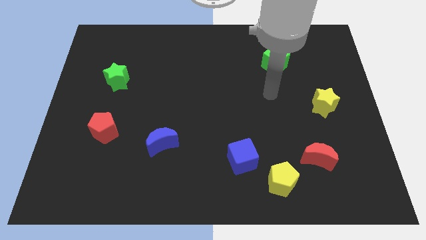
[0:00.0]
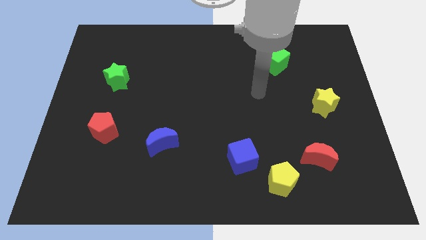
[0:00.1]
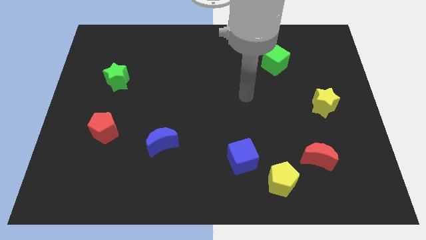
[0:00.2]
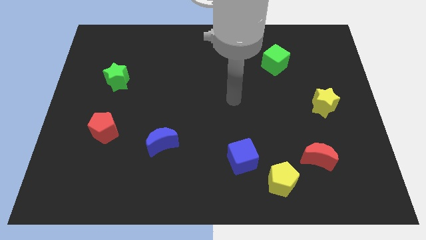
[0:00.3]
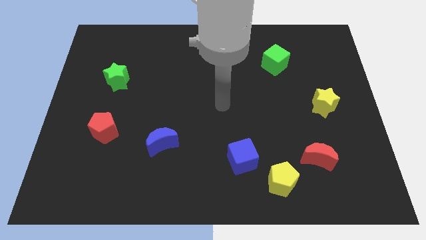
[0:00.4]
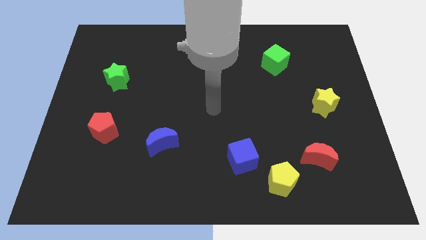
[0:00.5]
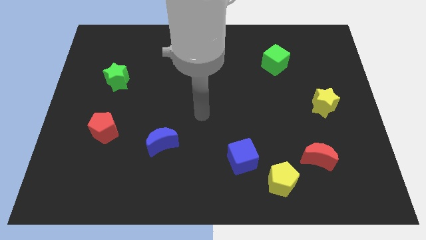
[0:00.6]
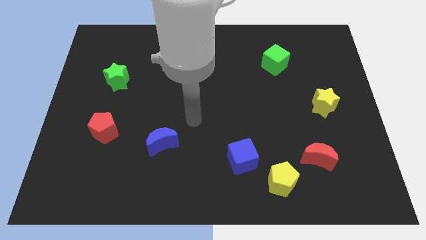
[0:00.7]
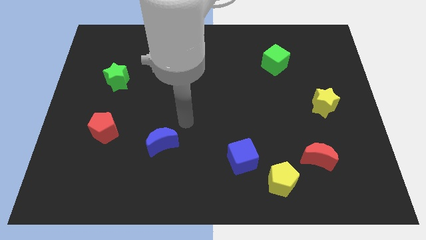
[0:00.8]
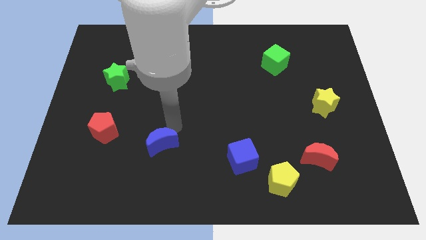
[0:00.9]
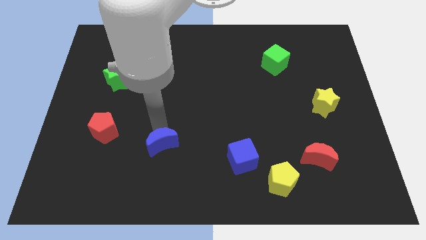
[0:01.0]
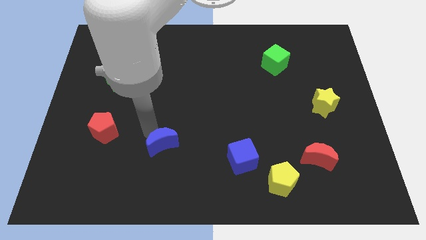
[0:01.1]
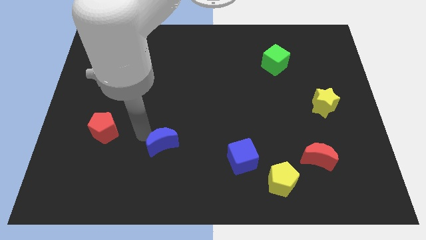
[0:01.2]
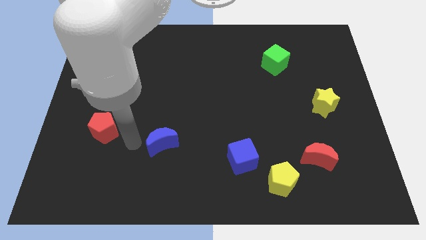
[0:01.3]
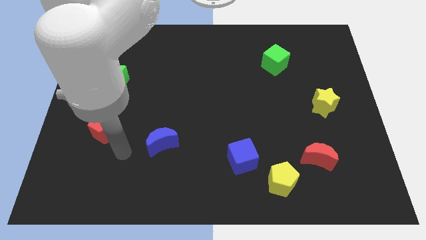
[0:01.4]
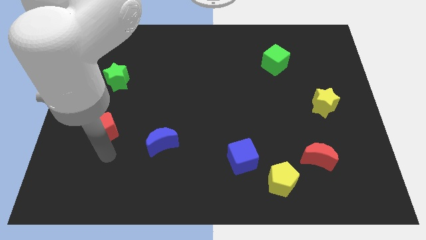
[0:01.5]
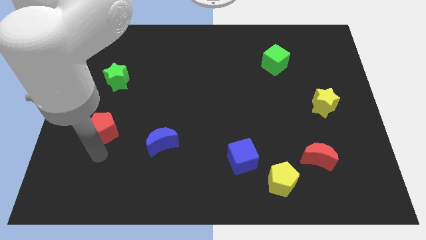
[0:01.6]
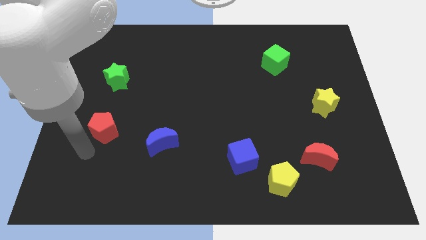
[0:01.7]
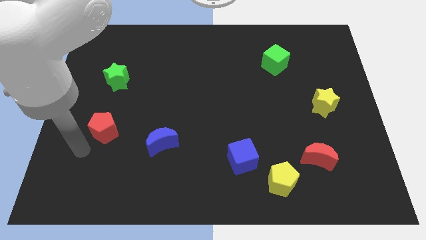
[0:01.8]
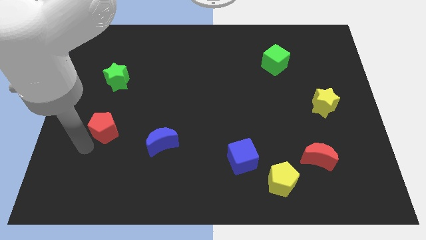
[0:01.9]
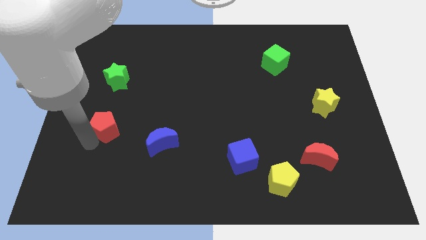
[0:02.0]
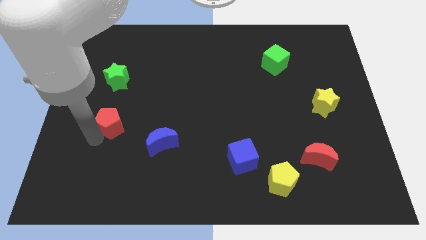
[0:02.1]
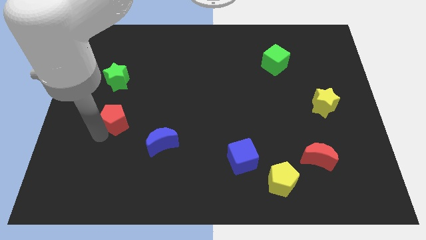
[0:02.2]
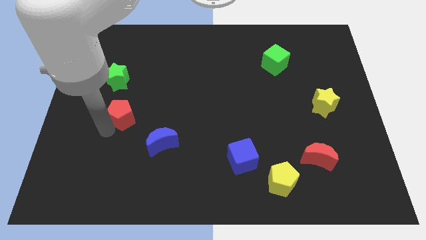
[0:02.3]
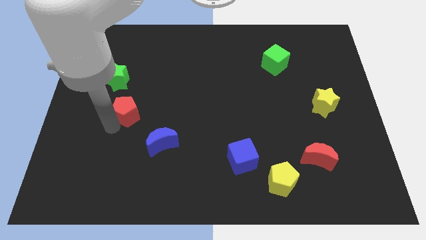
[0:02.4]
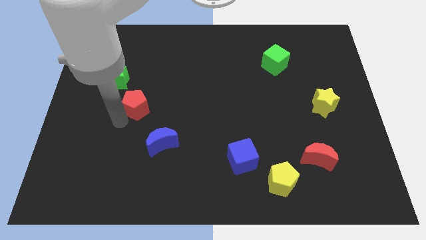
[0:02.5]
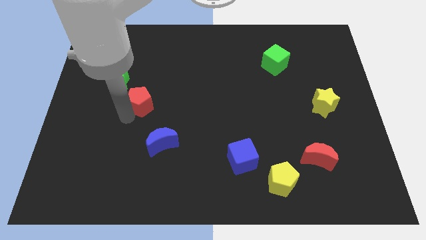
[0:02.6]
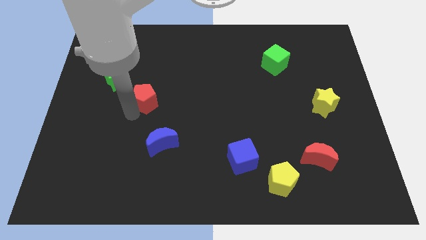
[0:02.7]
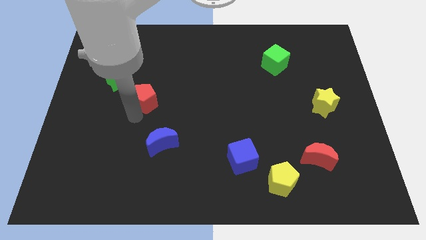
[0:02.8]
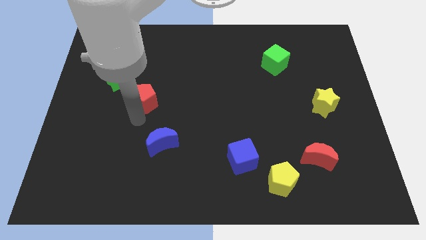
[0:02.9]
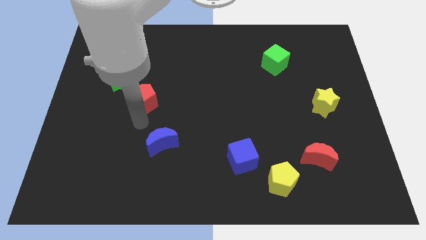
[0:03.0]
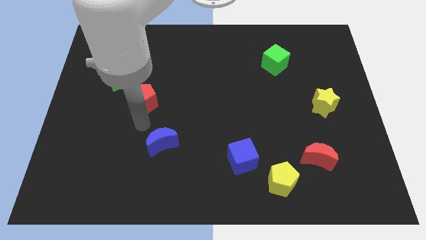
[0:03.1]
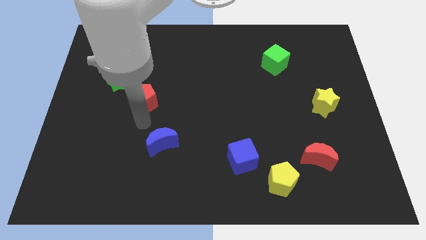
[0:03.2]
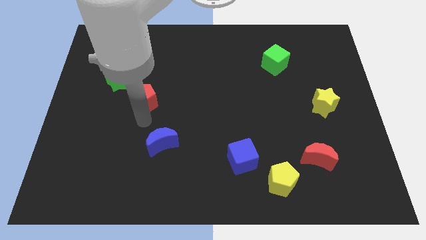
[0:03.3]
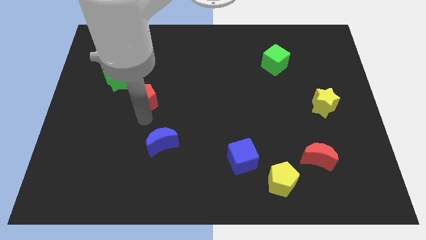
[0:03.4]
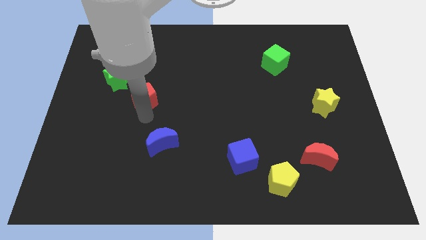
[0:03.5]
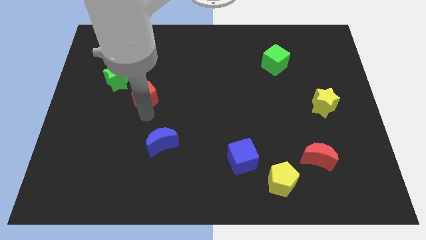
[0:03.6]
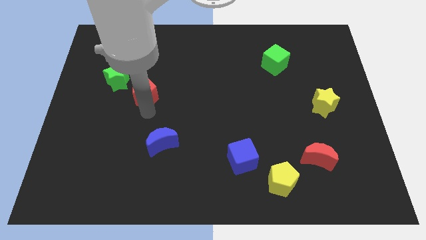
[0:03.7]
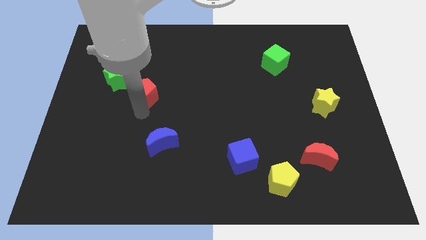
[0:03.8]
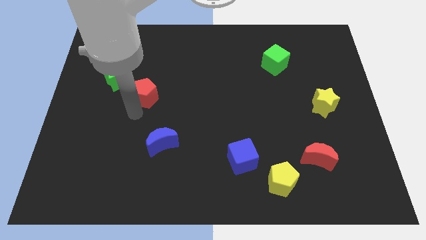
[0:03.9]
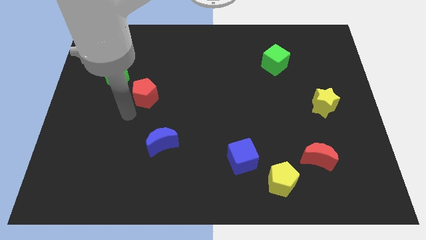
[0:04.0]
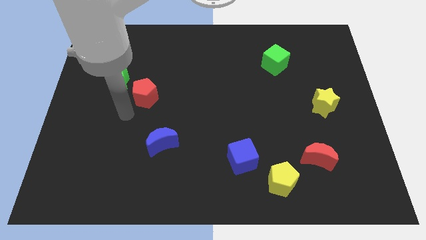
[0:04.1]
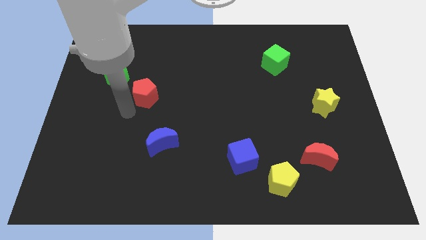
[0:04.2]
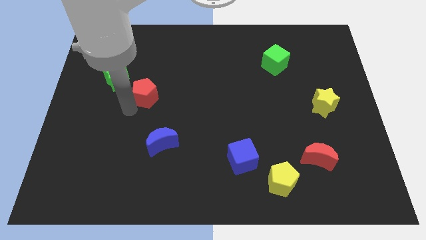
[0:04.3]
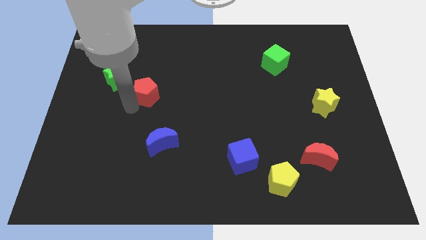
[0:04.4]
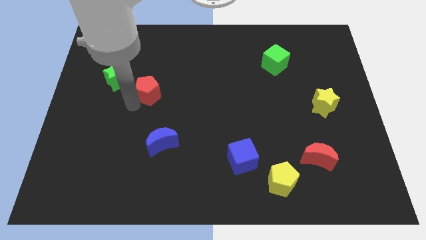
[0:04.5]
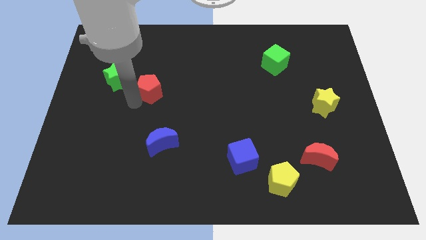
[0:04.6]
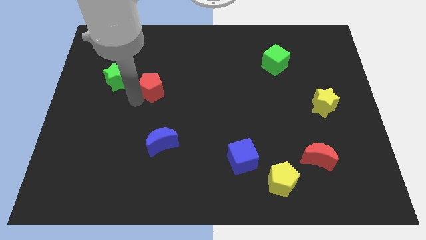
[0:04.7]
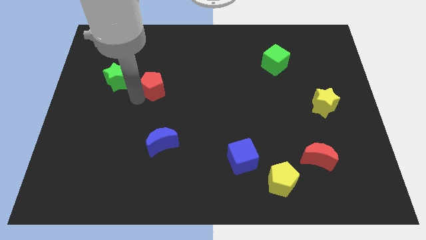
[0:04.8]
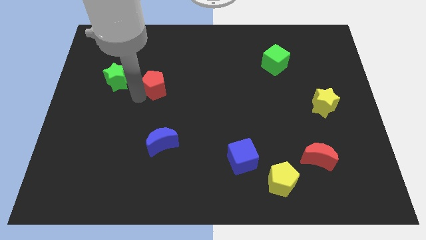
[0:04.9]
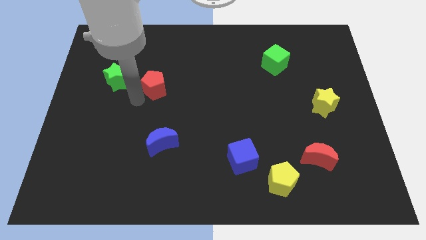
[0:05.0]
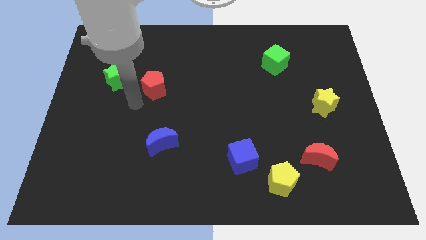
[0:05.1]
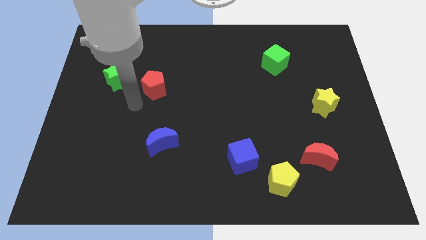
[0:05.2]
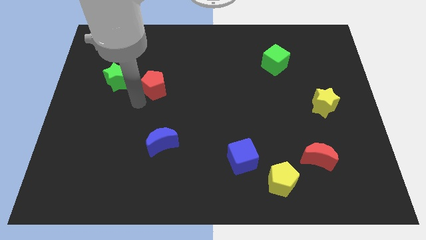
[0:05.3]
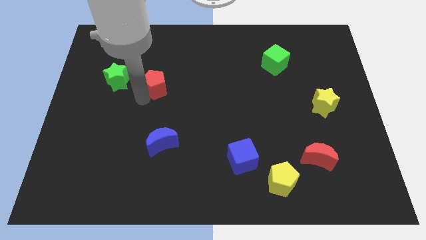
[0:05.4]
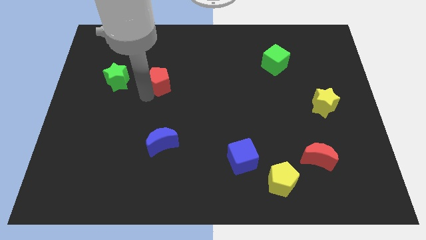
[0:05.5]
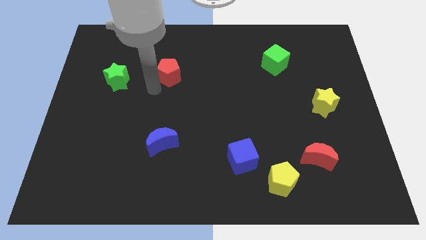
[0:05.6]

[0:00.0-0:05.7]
move the red pentagon diagonally up and to the right

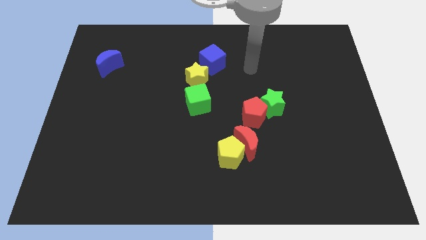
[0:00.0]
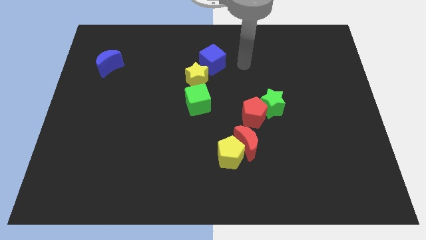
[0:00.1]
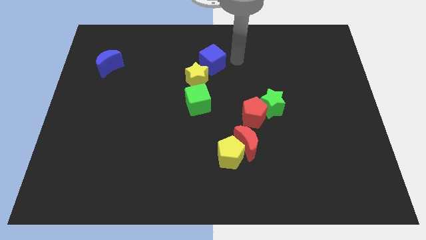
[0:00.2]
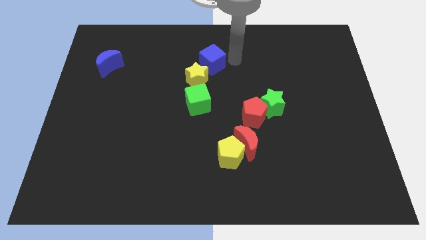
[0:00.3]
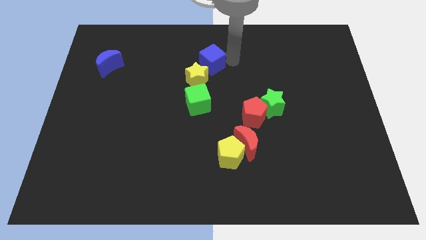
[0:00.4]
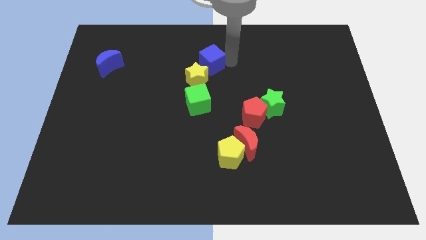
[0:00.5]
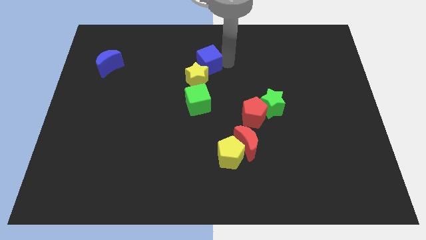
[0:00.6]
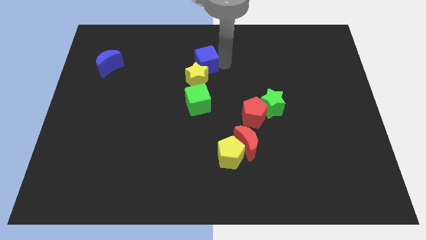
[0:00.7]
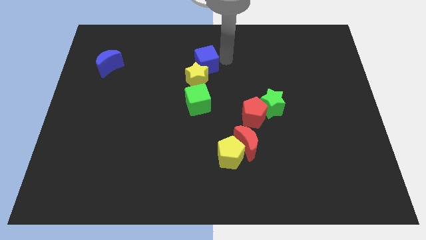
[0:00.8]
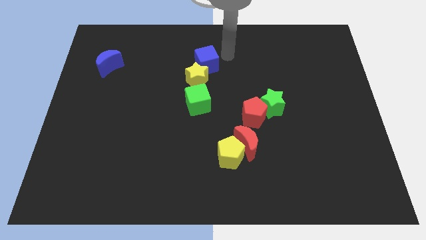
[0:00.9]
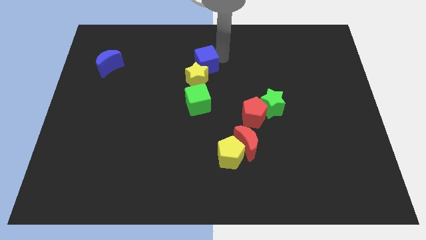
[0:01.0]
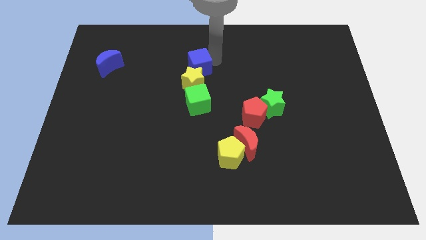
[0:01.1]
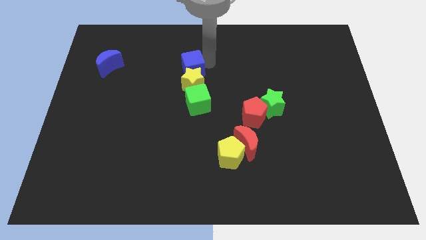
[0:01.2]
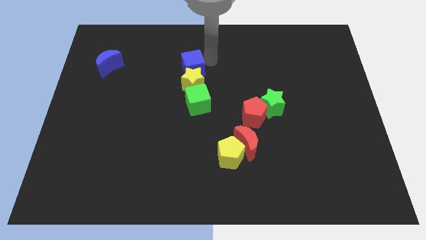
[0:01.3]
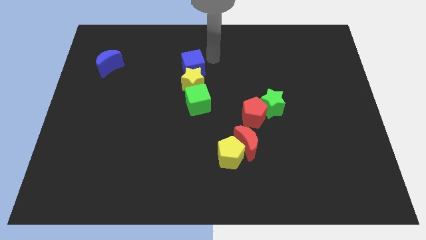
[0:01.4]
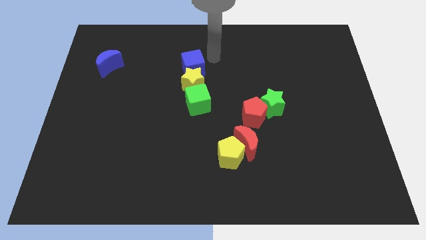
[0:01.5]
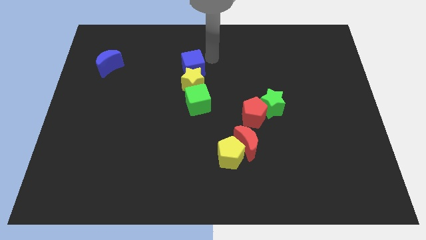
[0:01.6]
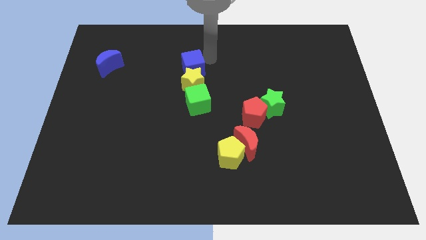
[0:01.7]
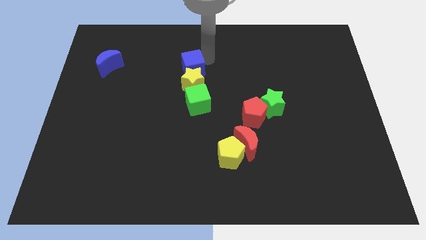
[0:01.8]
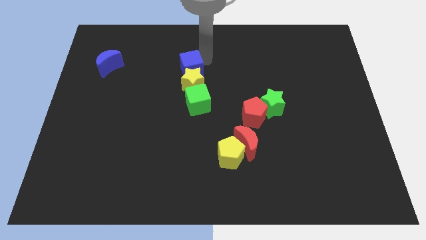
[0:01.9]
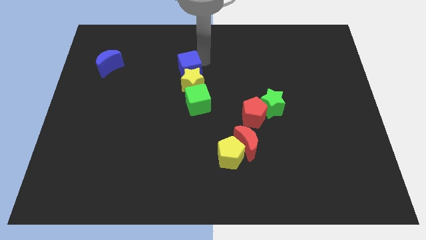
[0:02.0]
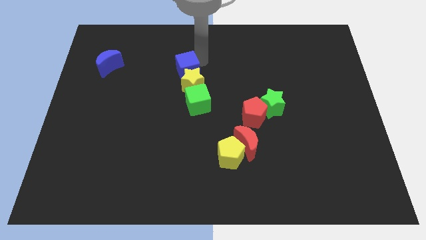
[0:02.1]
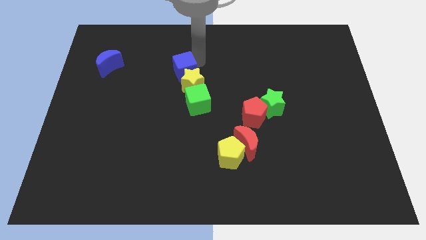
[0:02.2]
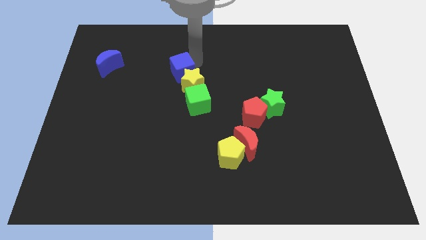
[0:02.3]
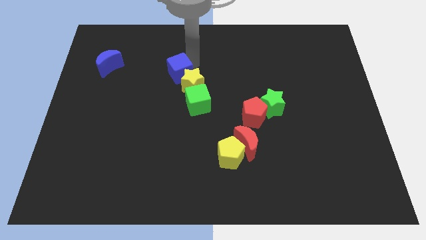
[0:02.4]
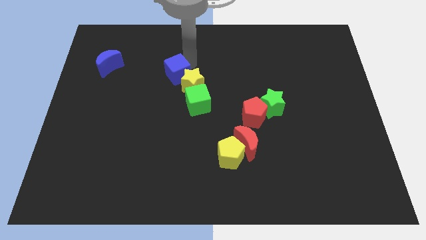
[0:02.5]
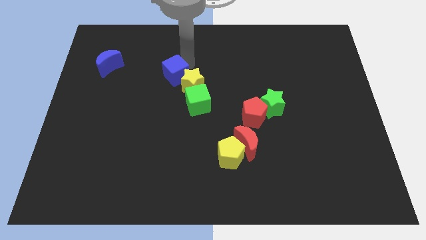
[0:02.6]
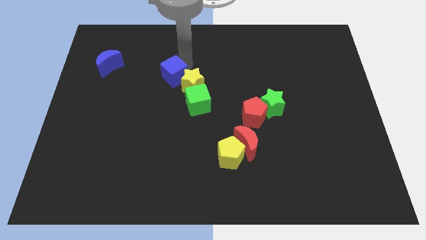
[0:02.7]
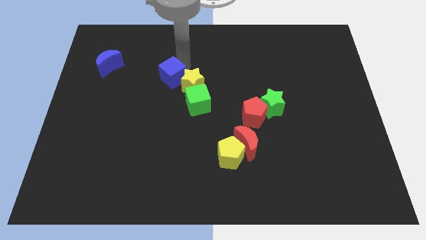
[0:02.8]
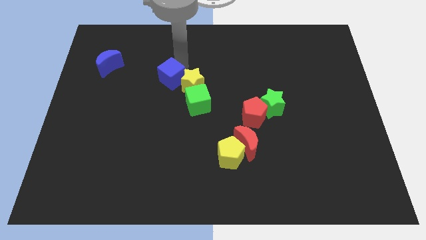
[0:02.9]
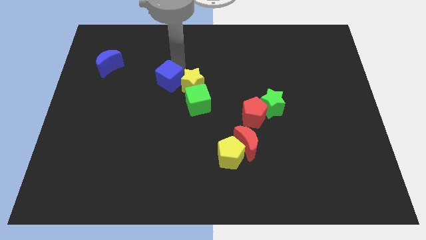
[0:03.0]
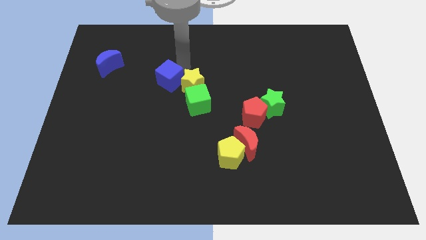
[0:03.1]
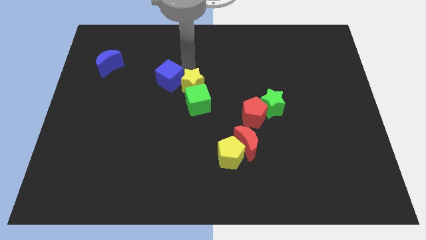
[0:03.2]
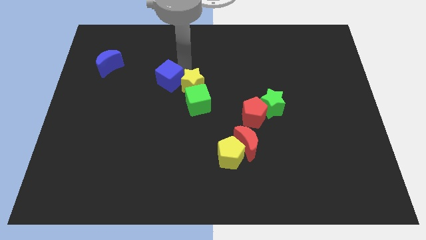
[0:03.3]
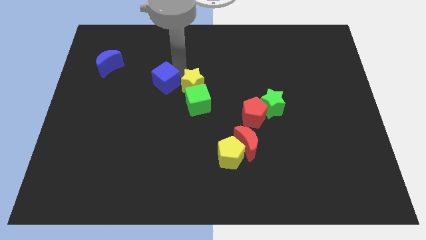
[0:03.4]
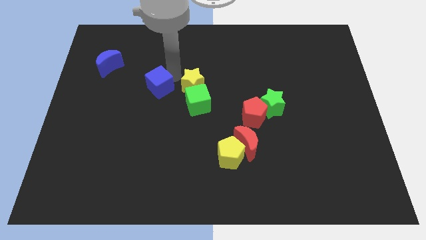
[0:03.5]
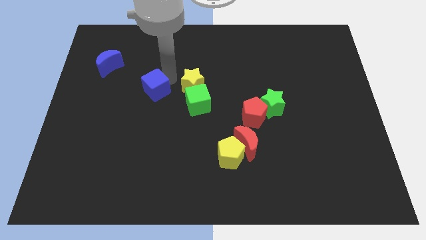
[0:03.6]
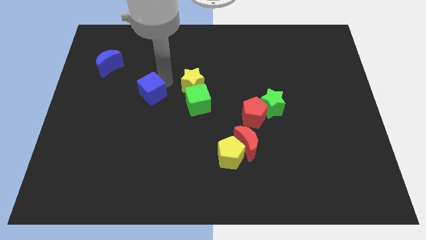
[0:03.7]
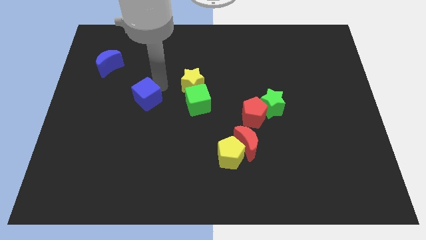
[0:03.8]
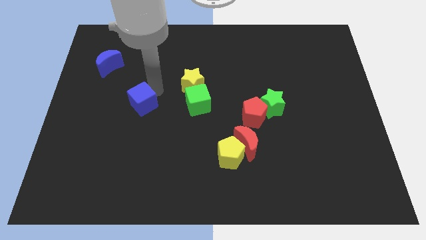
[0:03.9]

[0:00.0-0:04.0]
move the blue cube downwards and to the left diagonally
